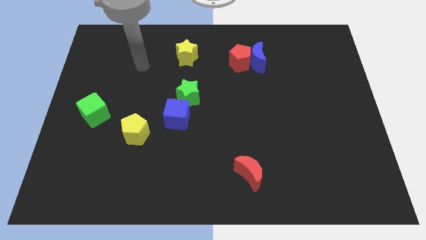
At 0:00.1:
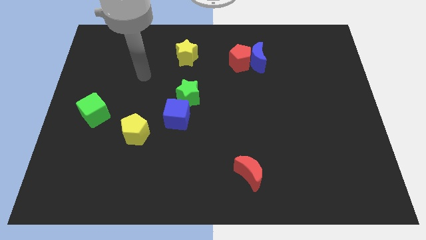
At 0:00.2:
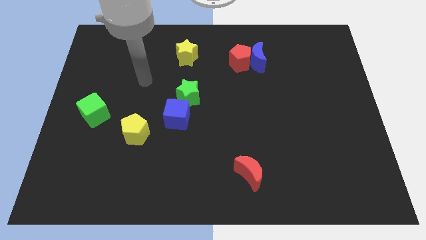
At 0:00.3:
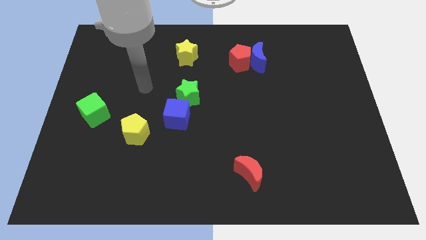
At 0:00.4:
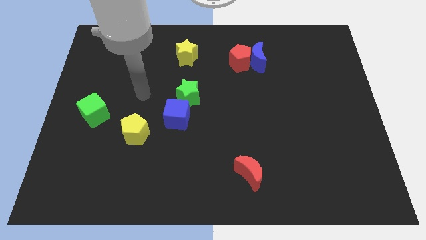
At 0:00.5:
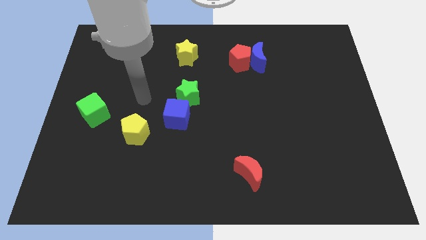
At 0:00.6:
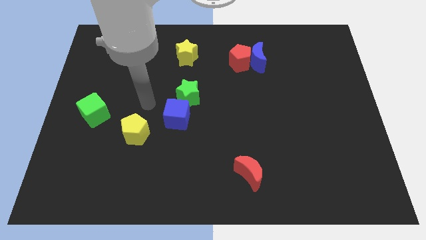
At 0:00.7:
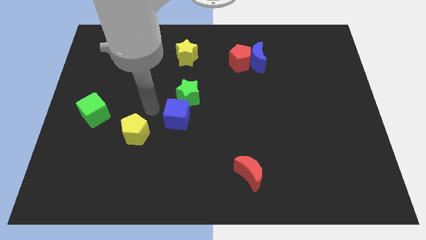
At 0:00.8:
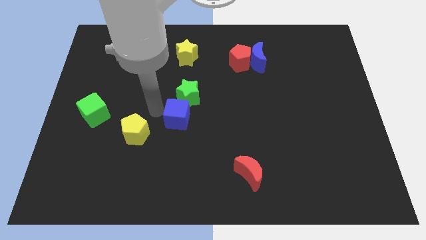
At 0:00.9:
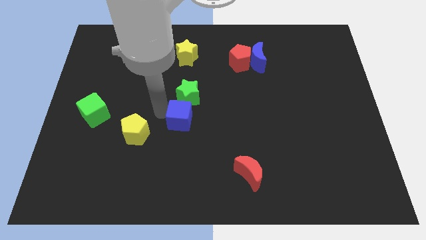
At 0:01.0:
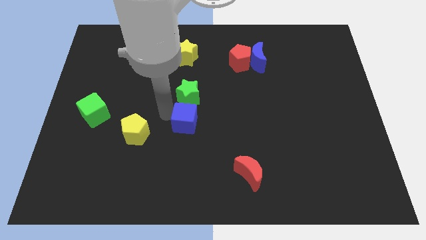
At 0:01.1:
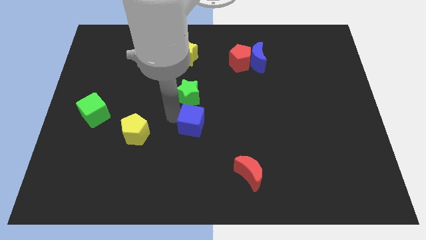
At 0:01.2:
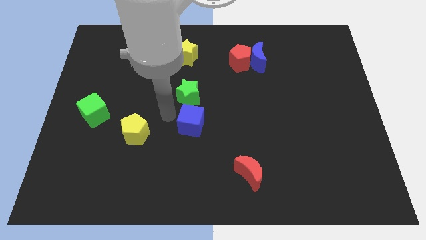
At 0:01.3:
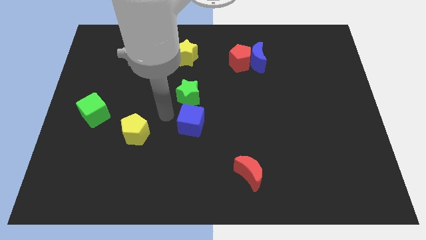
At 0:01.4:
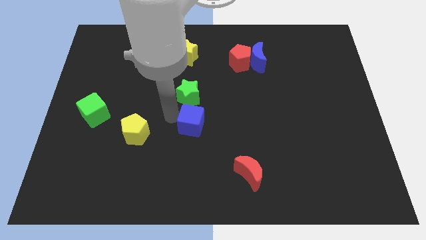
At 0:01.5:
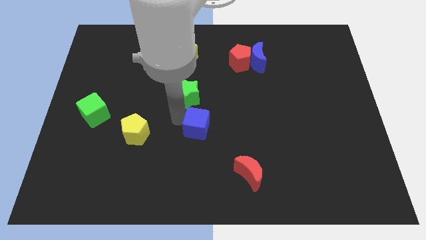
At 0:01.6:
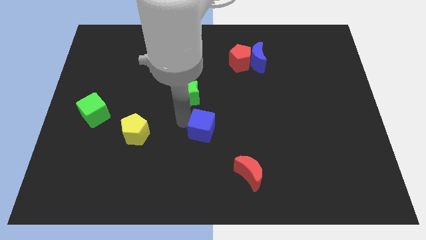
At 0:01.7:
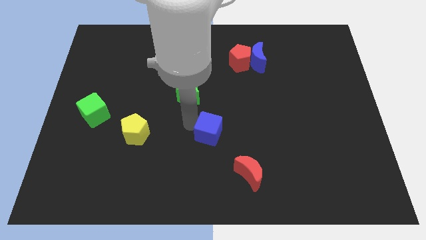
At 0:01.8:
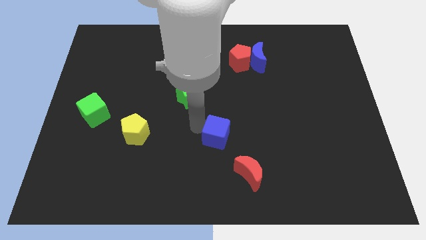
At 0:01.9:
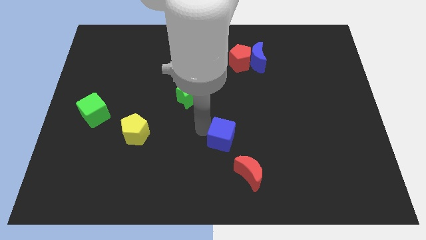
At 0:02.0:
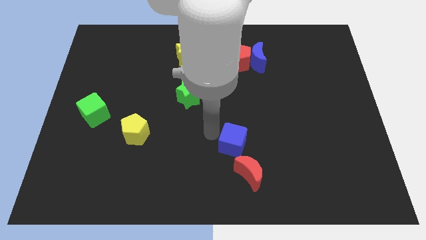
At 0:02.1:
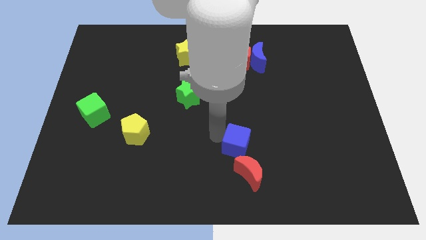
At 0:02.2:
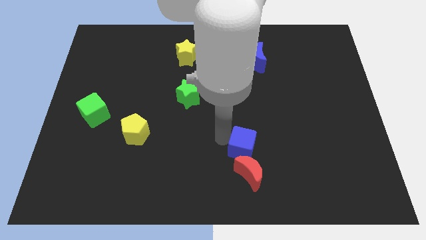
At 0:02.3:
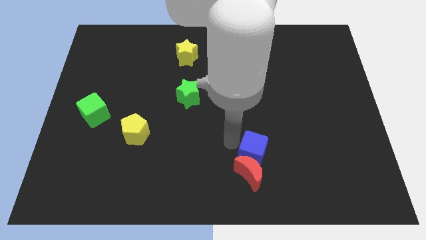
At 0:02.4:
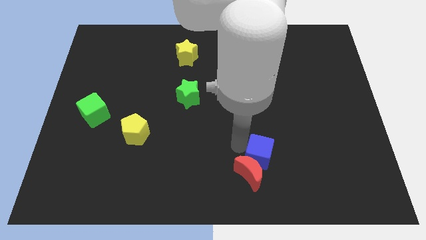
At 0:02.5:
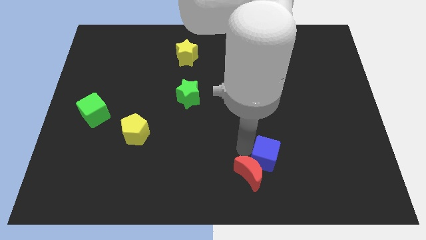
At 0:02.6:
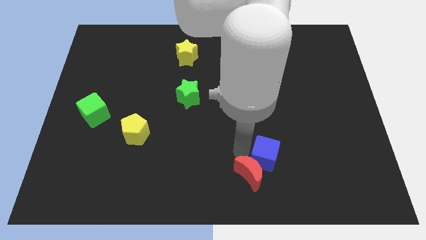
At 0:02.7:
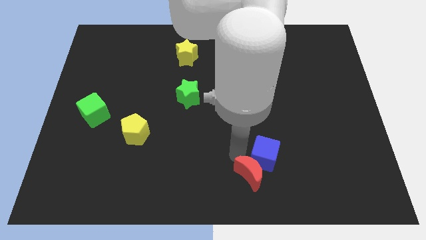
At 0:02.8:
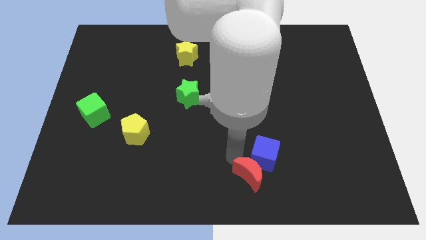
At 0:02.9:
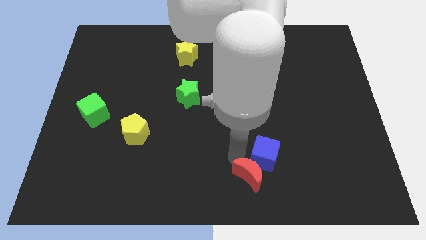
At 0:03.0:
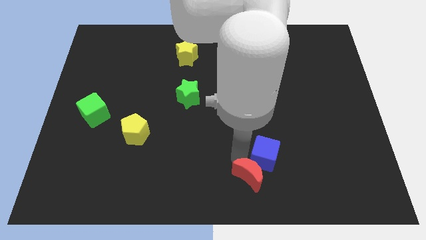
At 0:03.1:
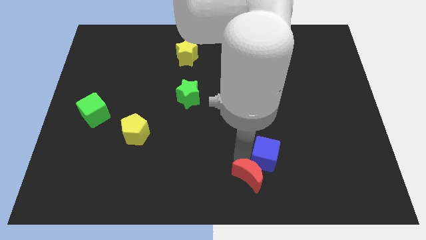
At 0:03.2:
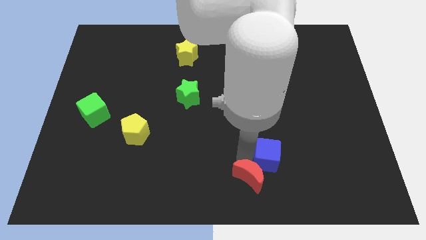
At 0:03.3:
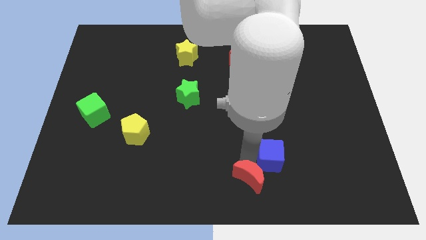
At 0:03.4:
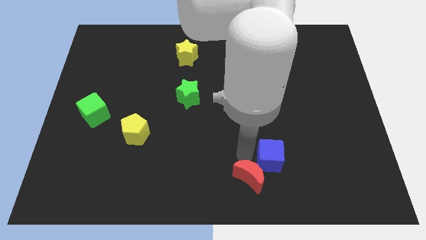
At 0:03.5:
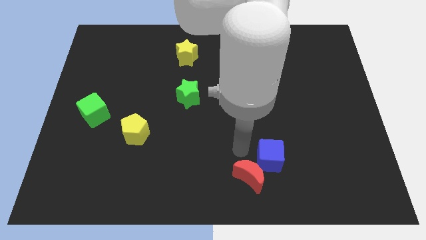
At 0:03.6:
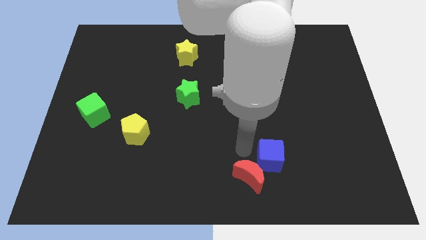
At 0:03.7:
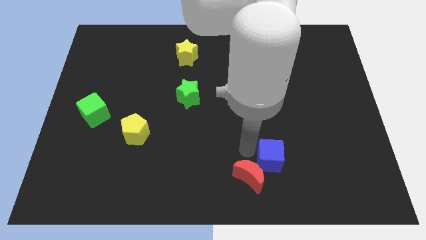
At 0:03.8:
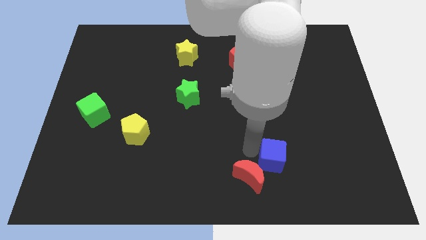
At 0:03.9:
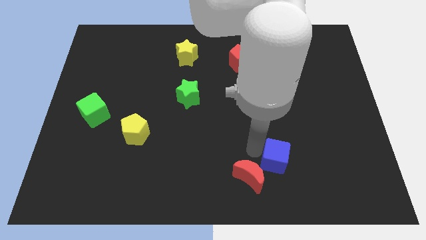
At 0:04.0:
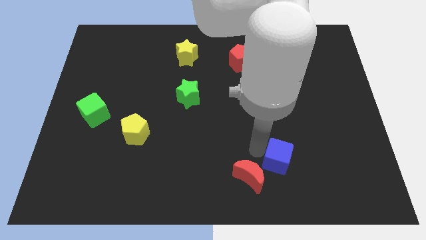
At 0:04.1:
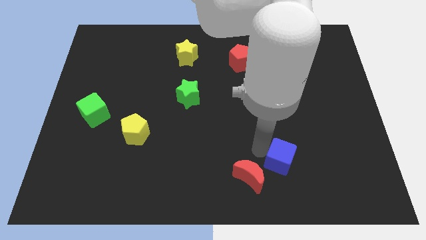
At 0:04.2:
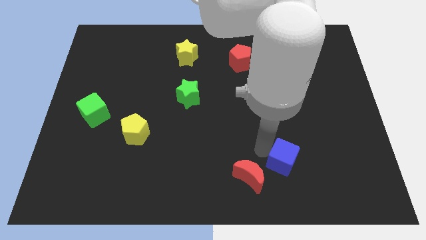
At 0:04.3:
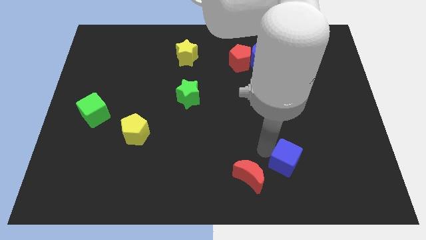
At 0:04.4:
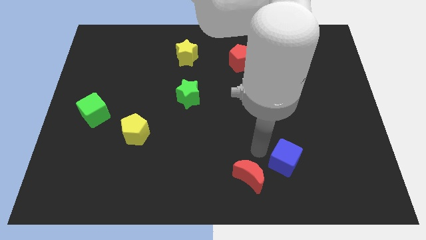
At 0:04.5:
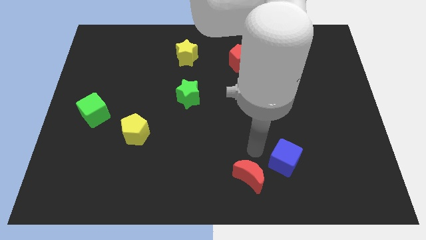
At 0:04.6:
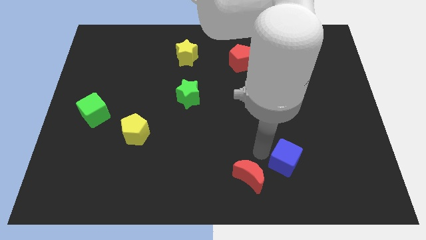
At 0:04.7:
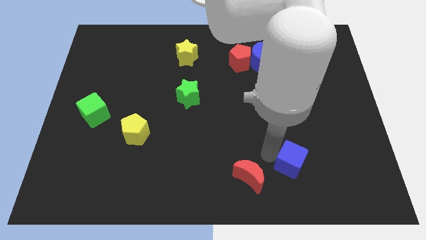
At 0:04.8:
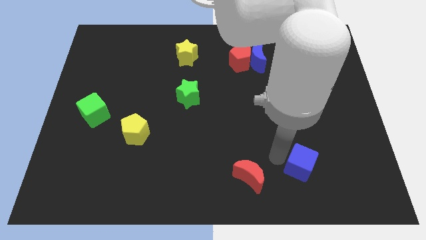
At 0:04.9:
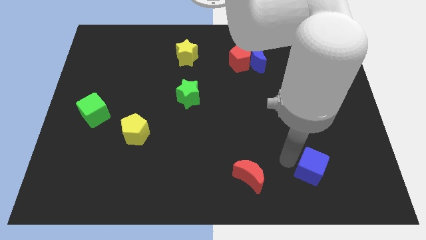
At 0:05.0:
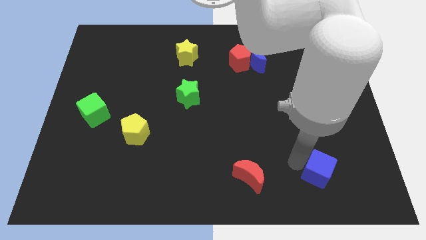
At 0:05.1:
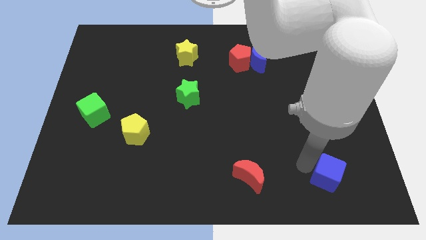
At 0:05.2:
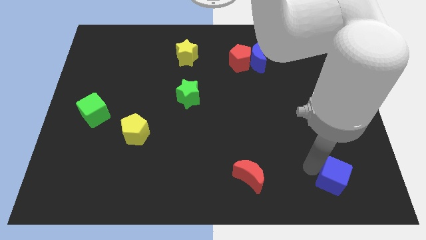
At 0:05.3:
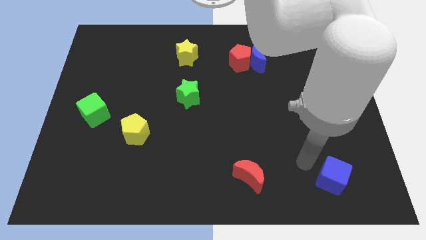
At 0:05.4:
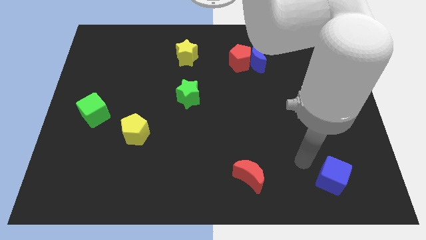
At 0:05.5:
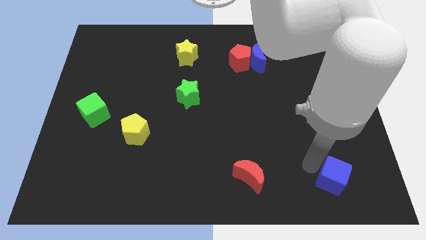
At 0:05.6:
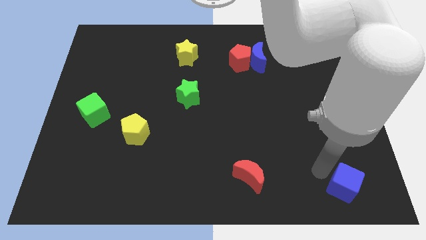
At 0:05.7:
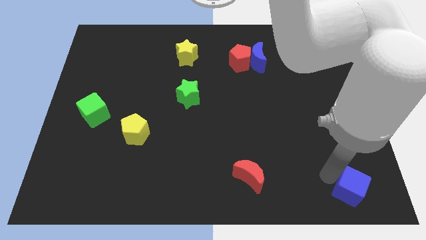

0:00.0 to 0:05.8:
push the blue cube to the bottom right corner
